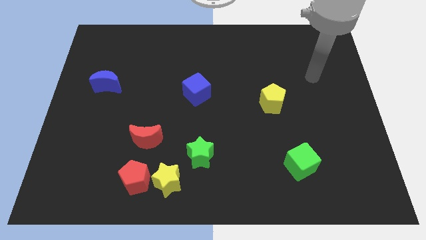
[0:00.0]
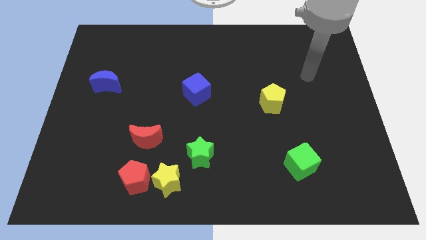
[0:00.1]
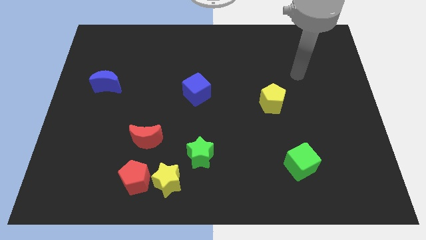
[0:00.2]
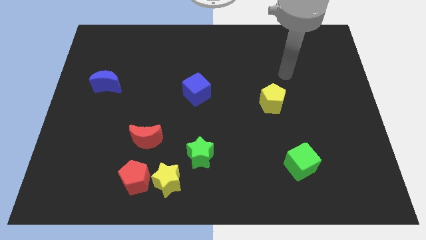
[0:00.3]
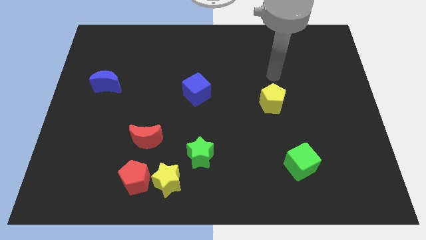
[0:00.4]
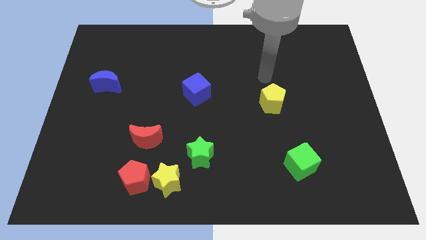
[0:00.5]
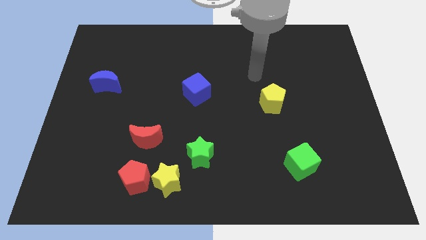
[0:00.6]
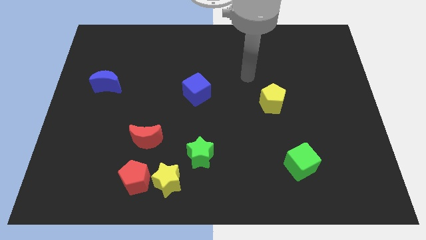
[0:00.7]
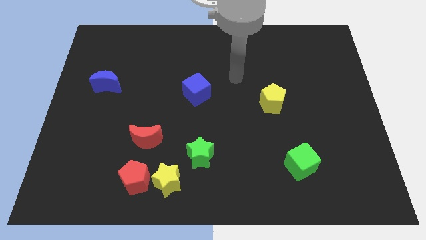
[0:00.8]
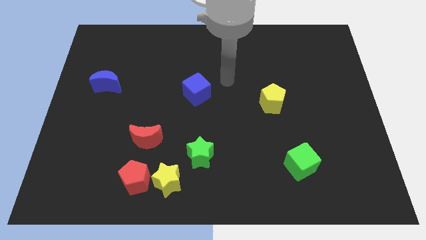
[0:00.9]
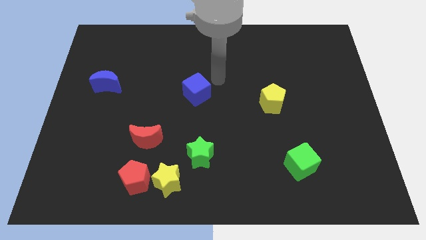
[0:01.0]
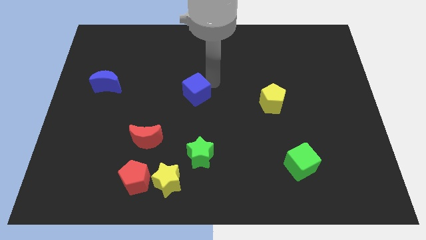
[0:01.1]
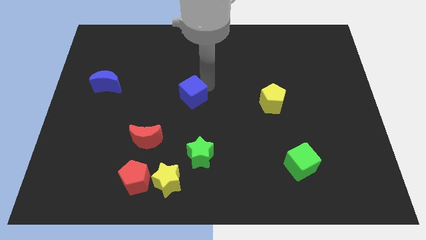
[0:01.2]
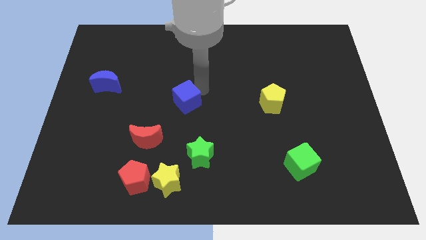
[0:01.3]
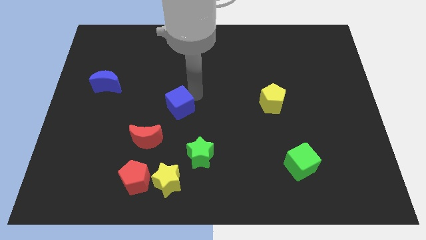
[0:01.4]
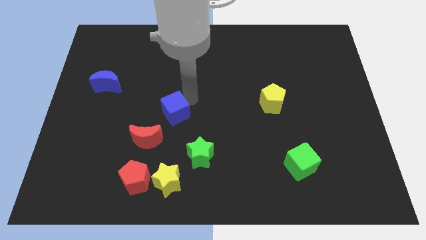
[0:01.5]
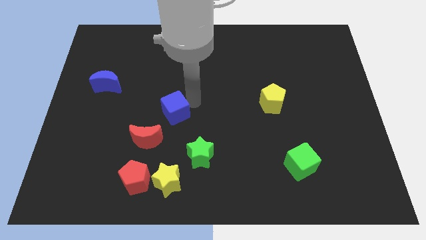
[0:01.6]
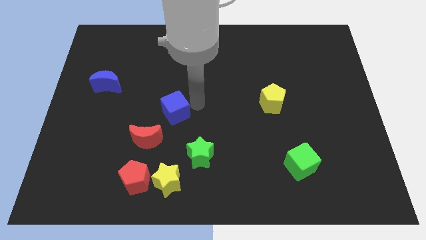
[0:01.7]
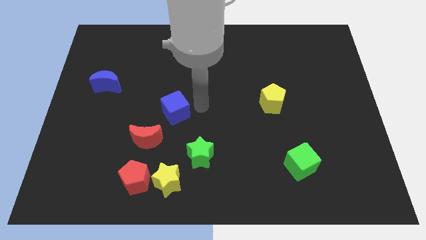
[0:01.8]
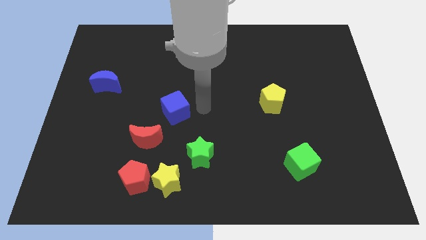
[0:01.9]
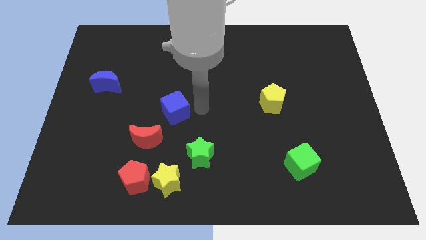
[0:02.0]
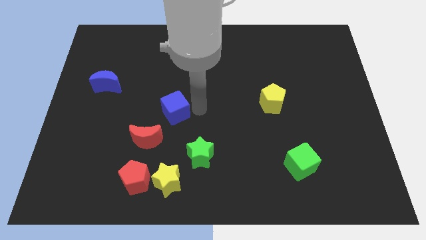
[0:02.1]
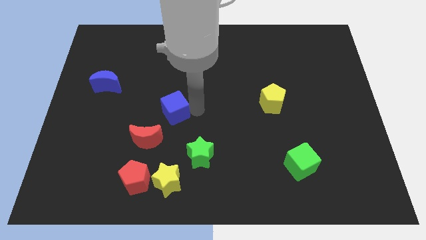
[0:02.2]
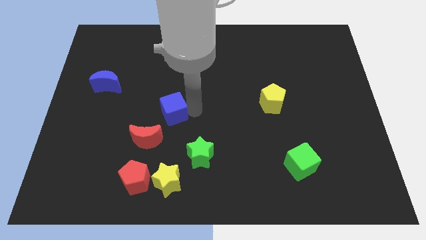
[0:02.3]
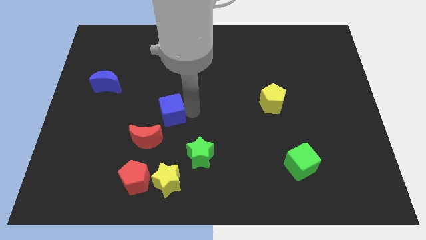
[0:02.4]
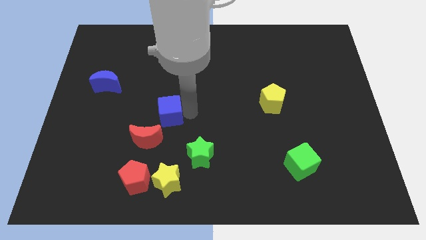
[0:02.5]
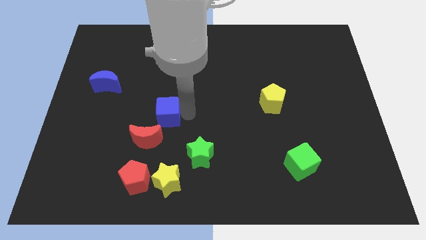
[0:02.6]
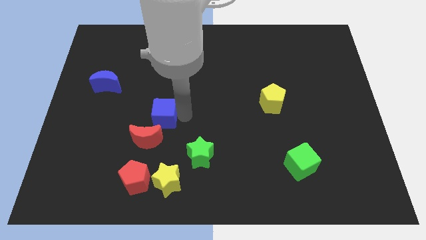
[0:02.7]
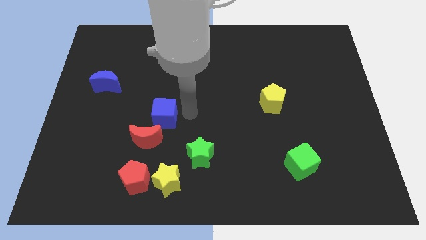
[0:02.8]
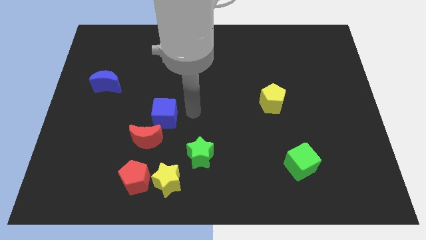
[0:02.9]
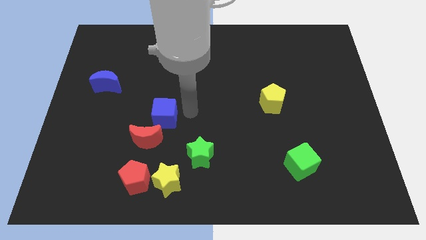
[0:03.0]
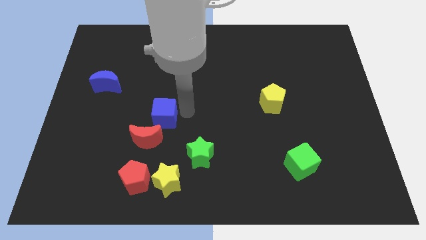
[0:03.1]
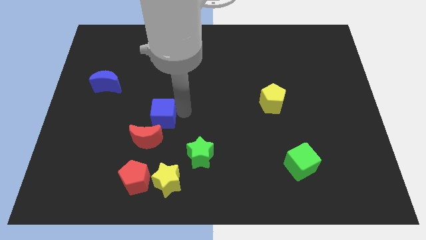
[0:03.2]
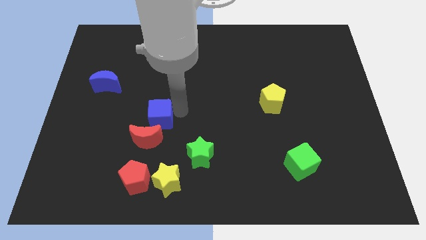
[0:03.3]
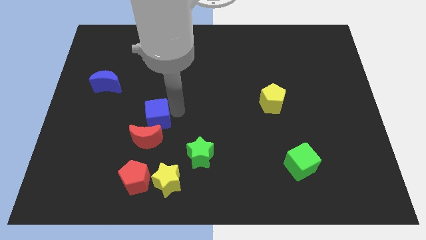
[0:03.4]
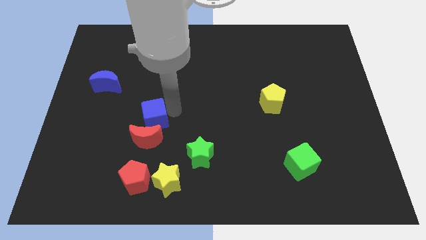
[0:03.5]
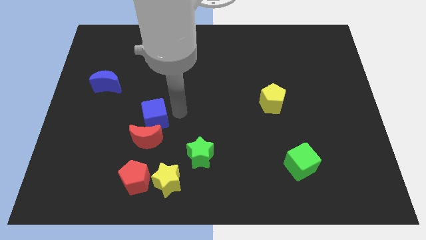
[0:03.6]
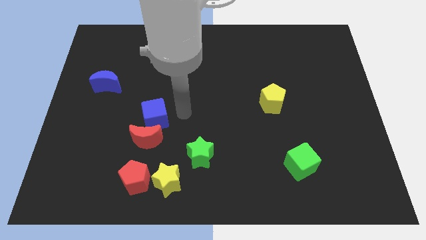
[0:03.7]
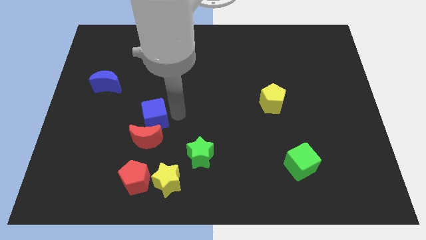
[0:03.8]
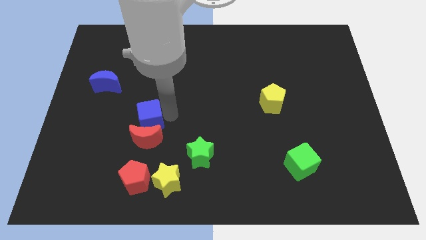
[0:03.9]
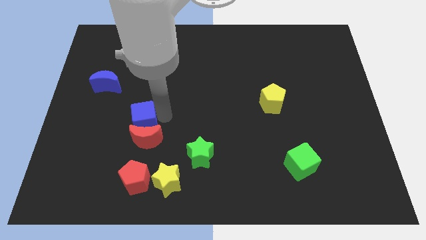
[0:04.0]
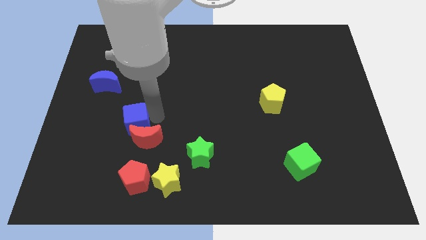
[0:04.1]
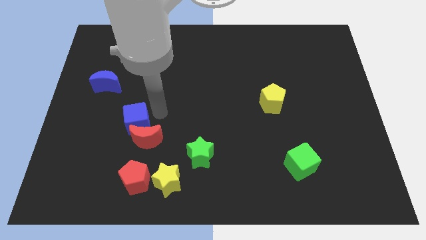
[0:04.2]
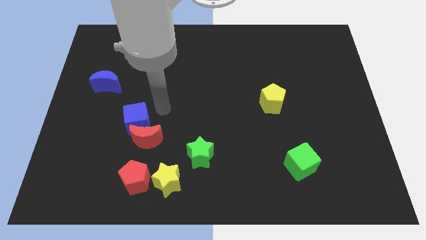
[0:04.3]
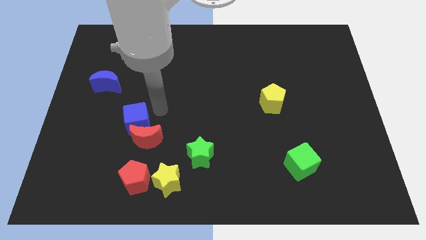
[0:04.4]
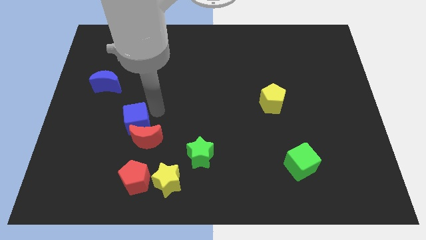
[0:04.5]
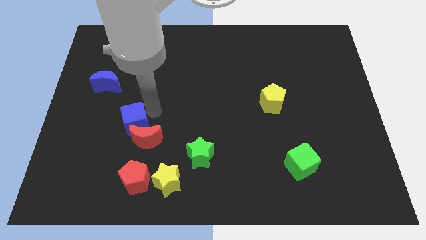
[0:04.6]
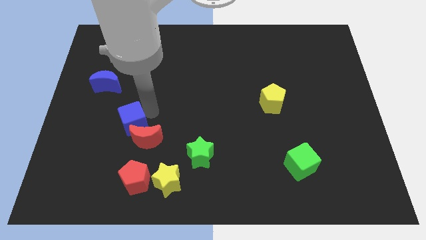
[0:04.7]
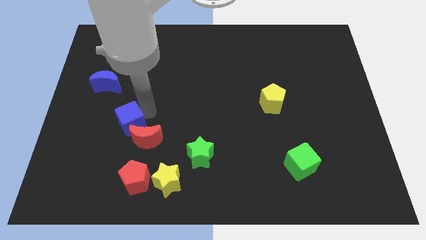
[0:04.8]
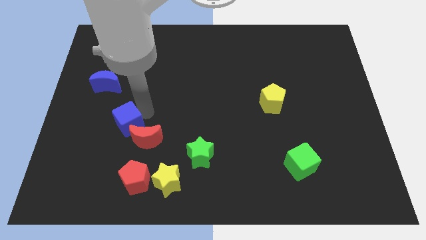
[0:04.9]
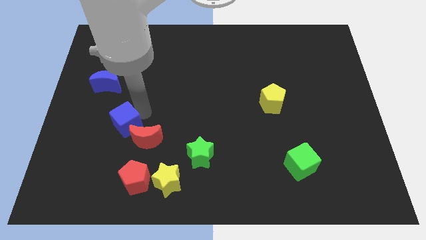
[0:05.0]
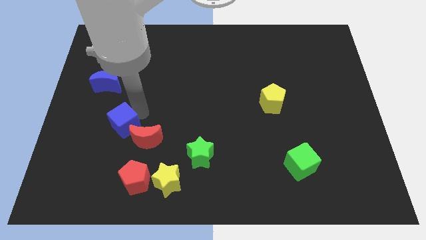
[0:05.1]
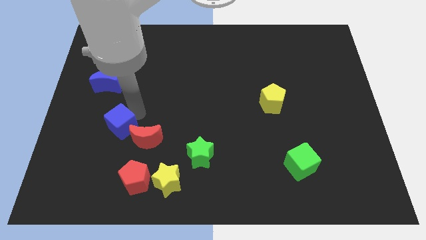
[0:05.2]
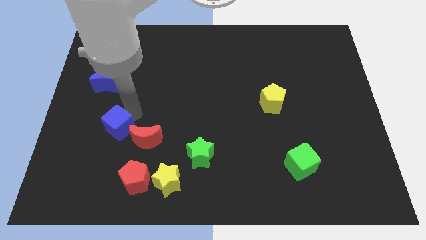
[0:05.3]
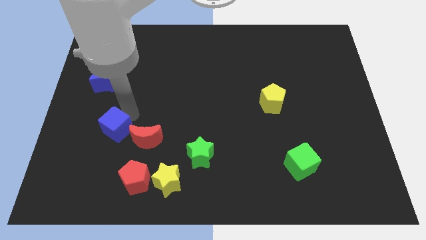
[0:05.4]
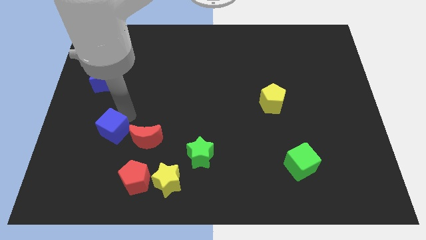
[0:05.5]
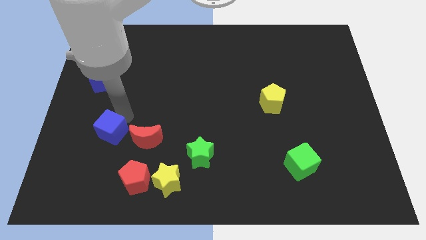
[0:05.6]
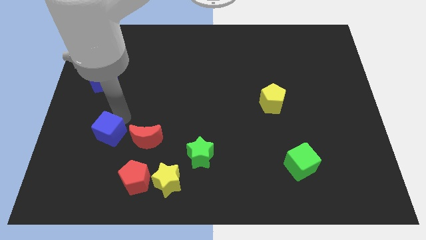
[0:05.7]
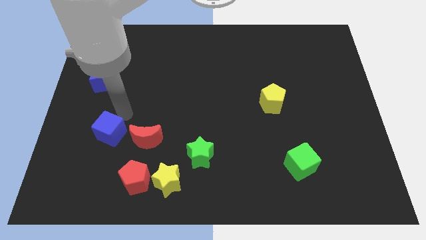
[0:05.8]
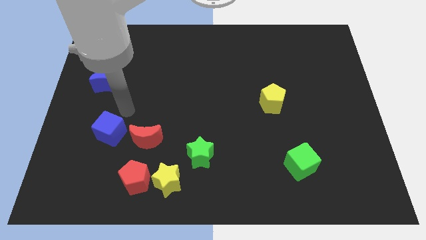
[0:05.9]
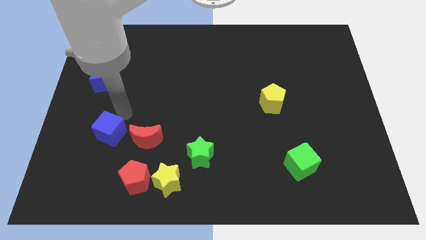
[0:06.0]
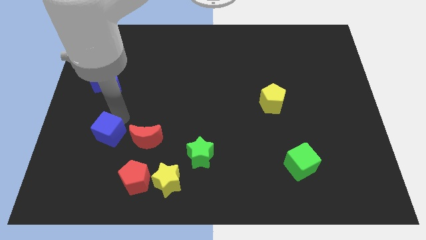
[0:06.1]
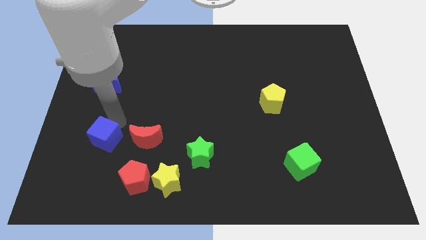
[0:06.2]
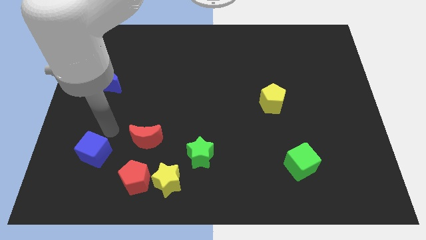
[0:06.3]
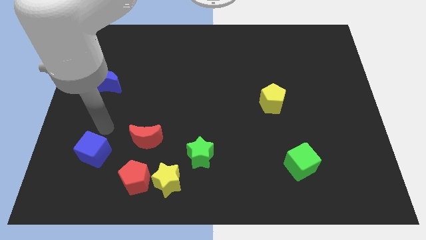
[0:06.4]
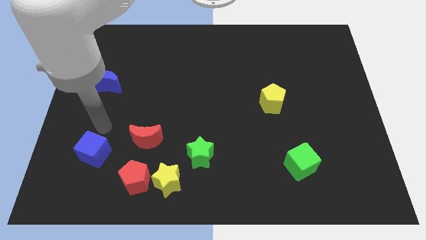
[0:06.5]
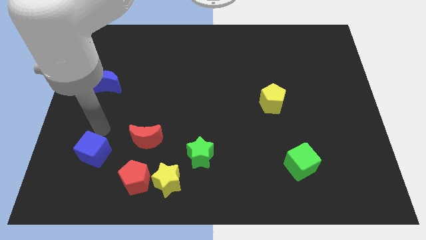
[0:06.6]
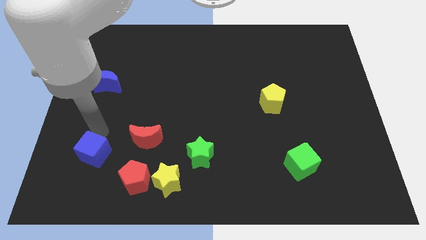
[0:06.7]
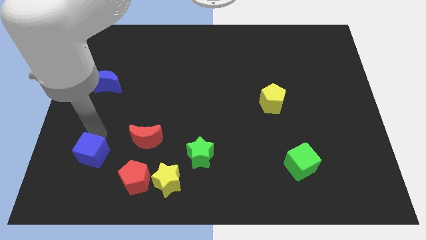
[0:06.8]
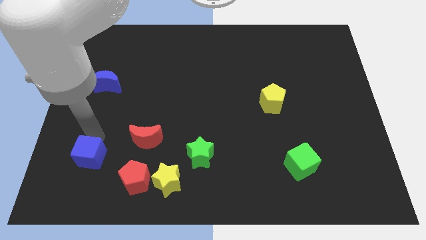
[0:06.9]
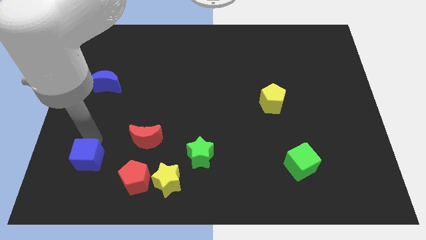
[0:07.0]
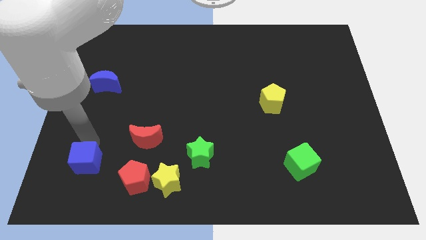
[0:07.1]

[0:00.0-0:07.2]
slide the blue cube to the left of the red pentagon

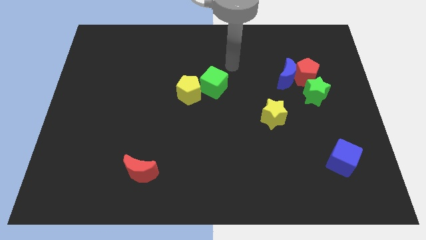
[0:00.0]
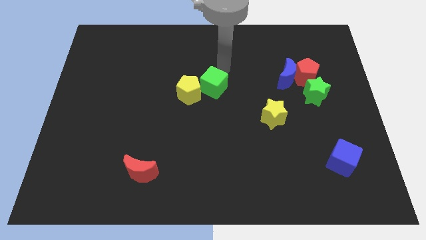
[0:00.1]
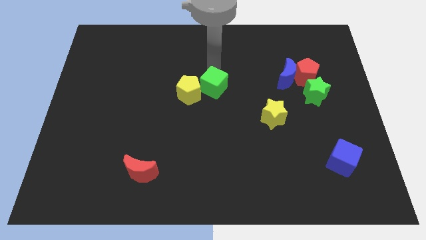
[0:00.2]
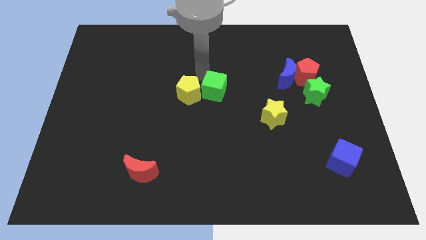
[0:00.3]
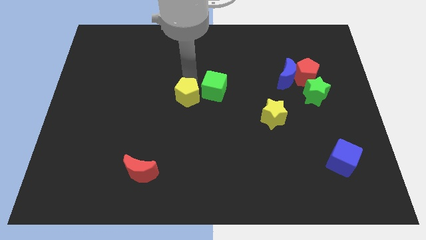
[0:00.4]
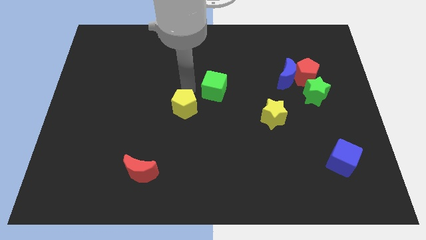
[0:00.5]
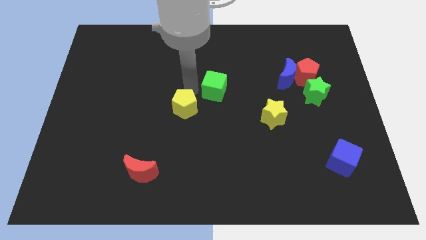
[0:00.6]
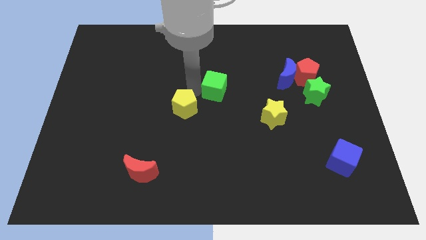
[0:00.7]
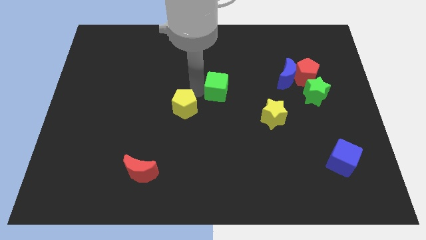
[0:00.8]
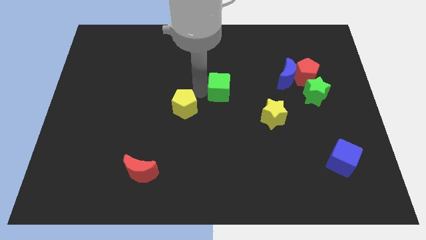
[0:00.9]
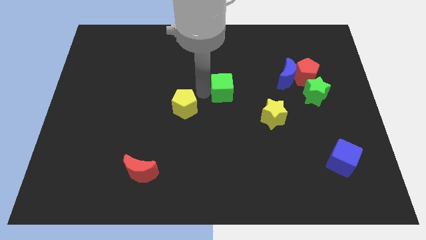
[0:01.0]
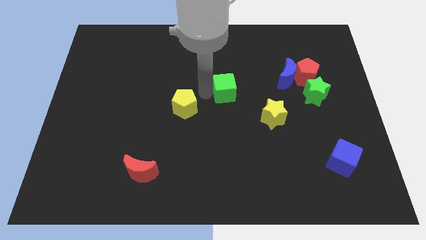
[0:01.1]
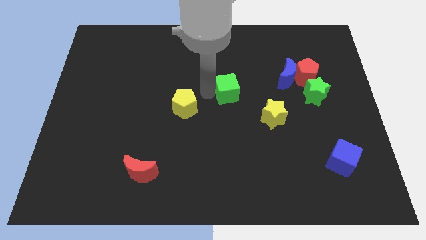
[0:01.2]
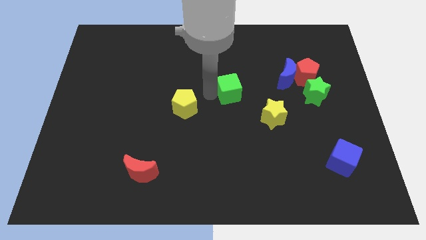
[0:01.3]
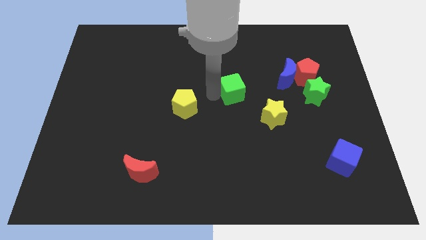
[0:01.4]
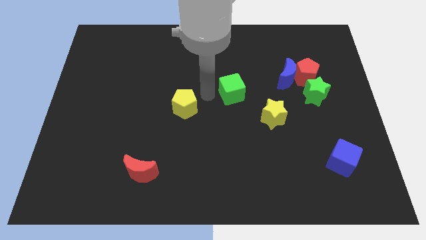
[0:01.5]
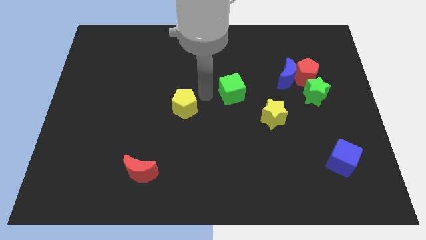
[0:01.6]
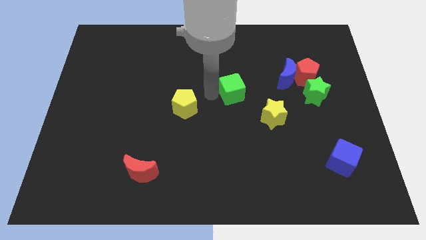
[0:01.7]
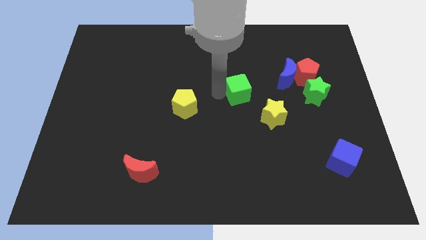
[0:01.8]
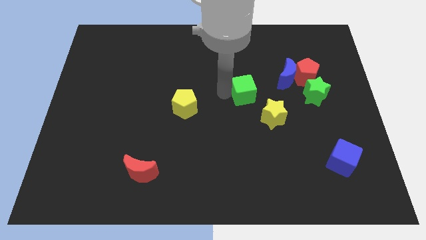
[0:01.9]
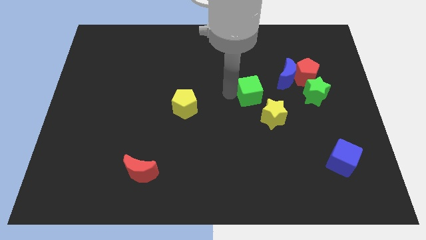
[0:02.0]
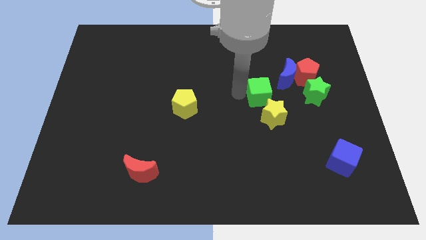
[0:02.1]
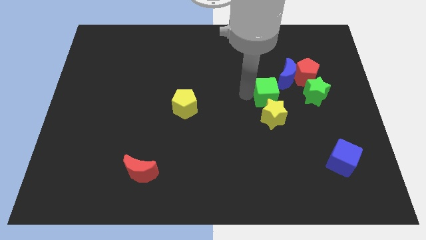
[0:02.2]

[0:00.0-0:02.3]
push the green cube diagonally down and to the left of the red pentagon
